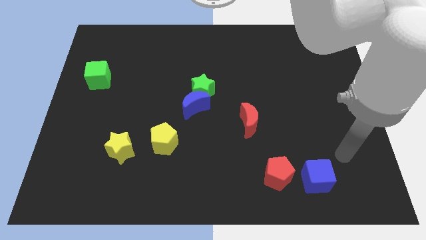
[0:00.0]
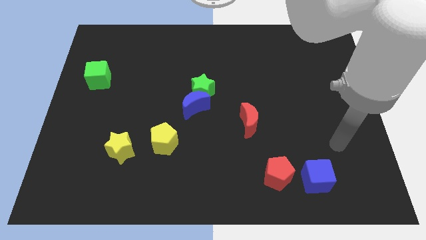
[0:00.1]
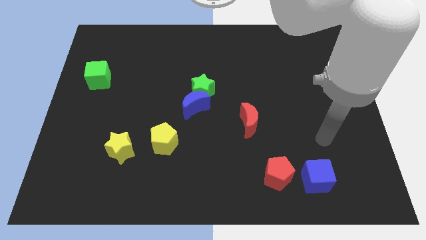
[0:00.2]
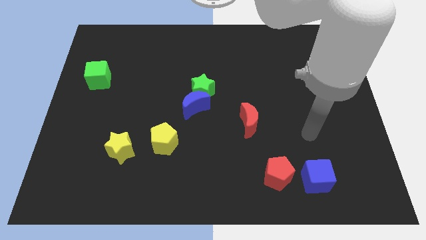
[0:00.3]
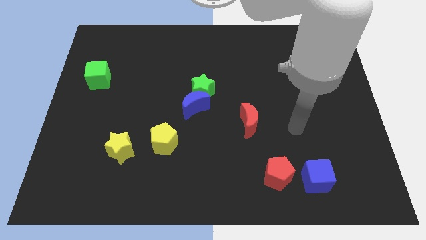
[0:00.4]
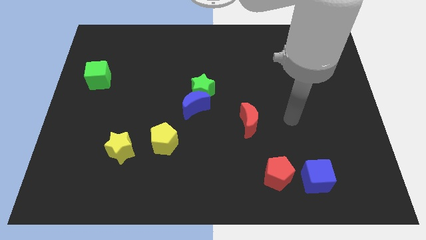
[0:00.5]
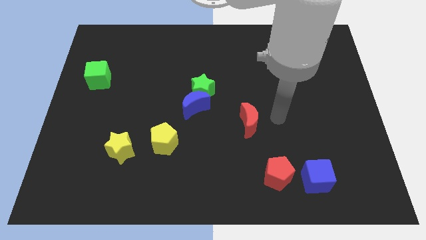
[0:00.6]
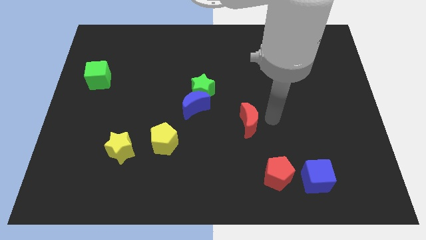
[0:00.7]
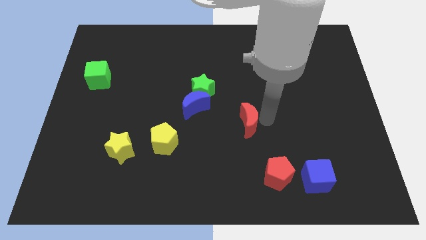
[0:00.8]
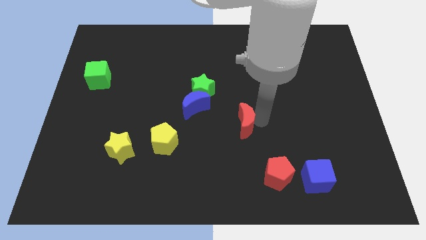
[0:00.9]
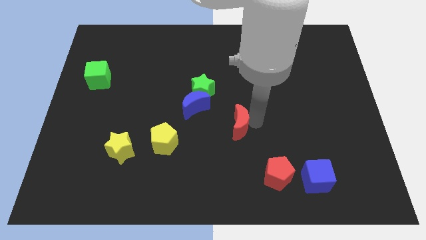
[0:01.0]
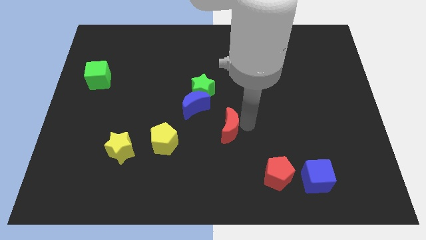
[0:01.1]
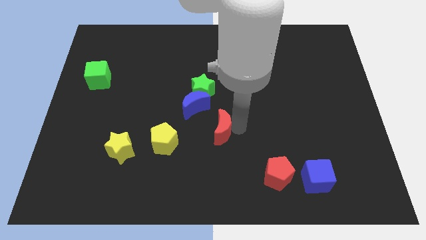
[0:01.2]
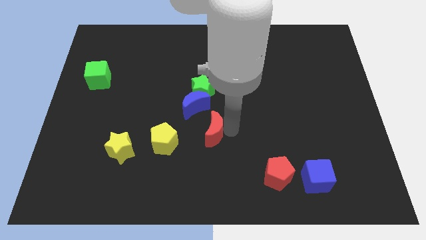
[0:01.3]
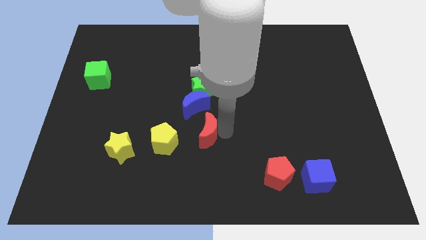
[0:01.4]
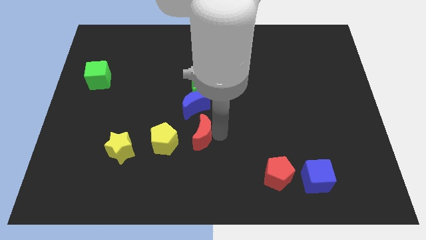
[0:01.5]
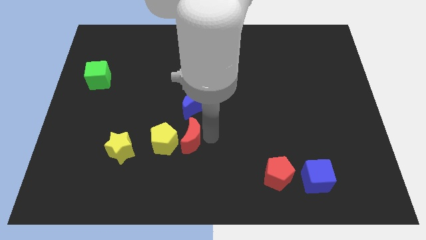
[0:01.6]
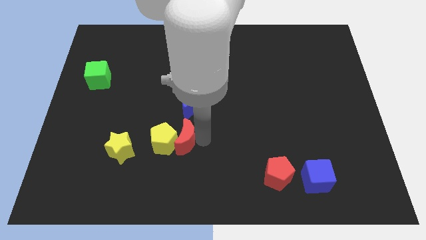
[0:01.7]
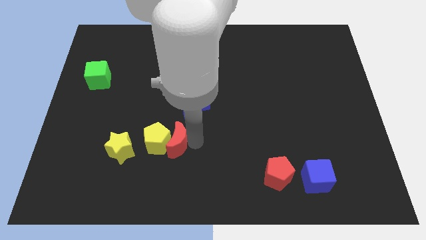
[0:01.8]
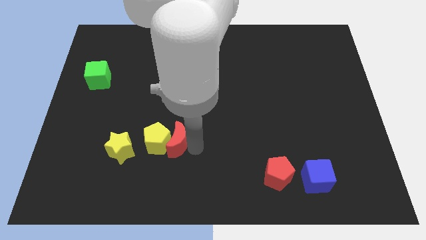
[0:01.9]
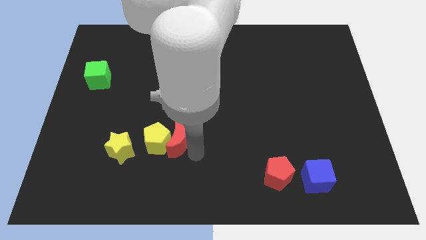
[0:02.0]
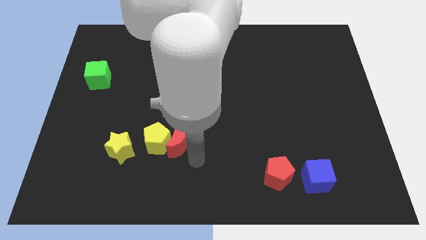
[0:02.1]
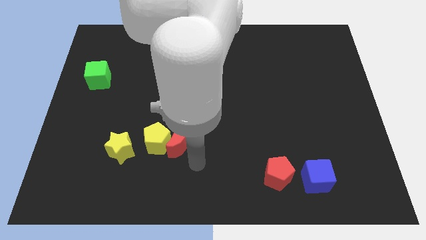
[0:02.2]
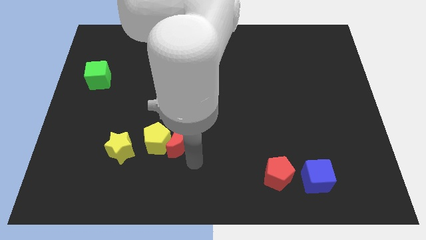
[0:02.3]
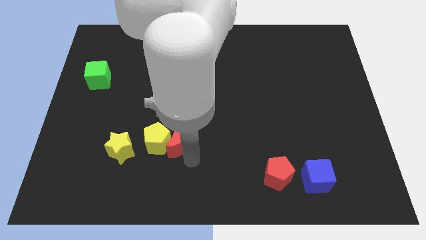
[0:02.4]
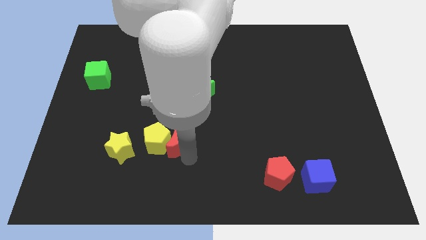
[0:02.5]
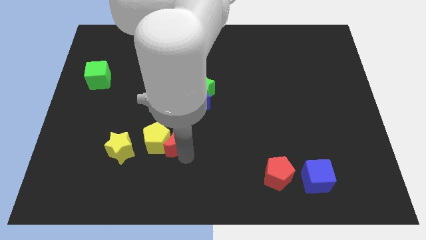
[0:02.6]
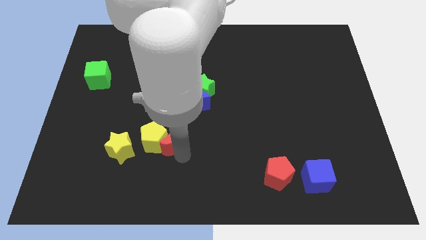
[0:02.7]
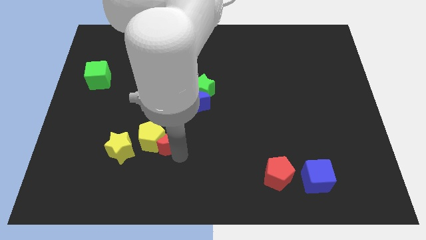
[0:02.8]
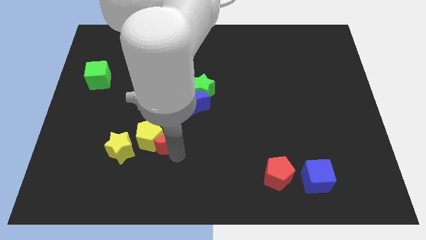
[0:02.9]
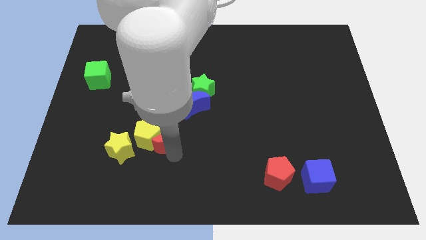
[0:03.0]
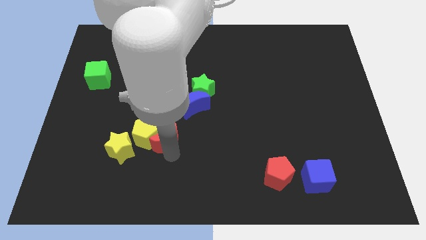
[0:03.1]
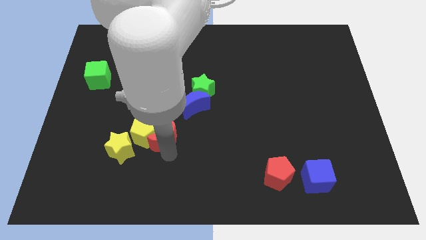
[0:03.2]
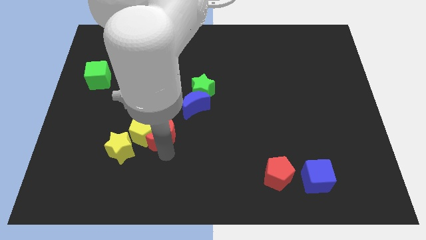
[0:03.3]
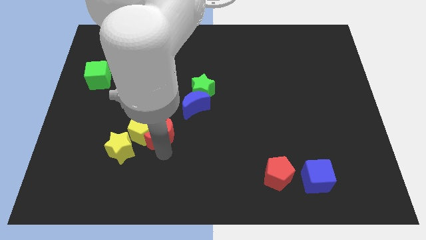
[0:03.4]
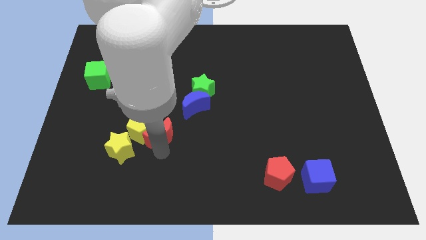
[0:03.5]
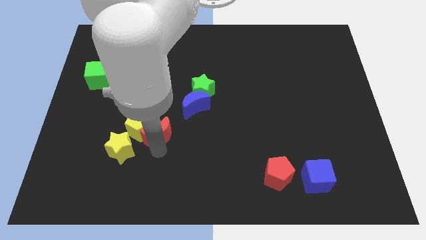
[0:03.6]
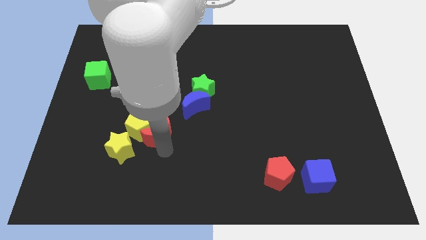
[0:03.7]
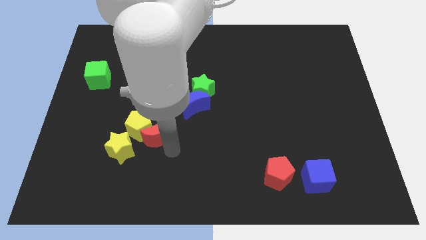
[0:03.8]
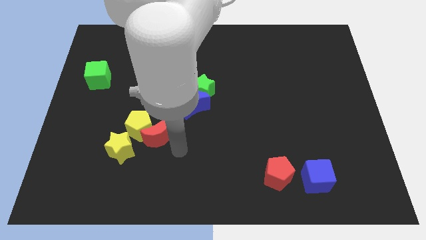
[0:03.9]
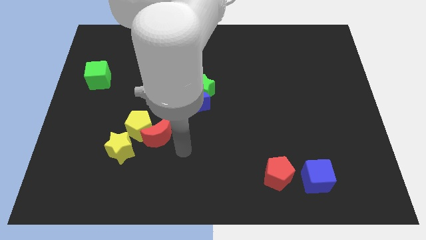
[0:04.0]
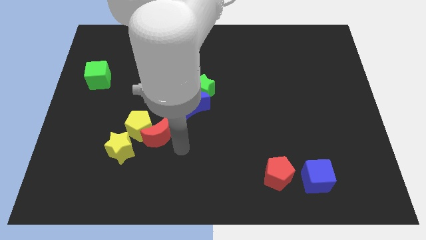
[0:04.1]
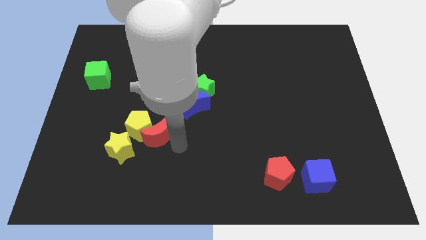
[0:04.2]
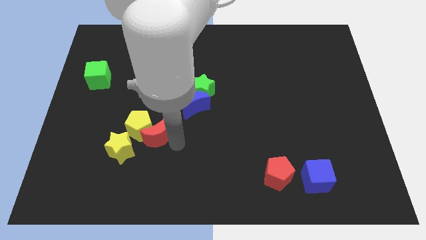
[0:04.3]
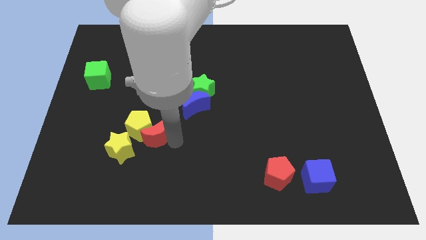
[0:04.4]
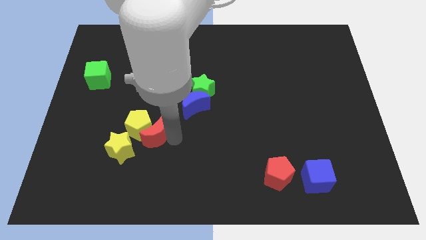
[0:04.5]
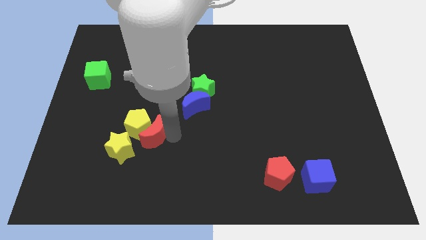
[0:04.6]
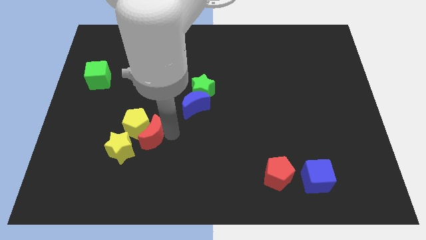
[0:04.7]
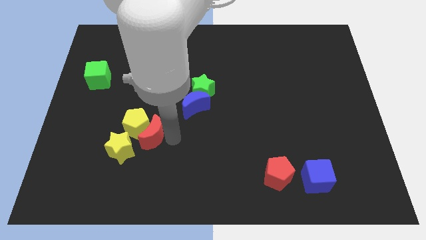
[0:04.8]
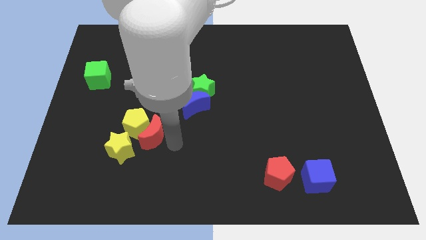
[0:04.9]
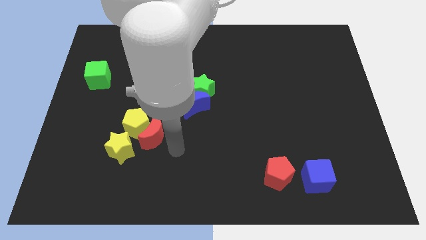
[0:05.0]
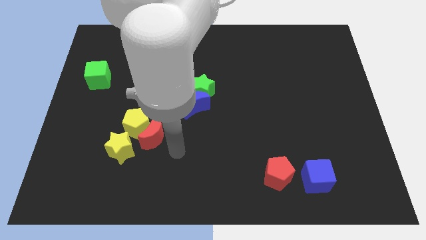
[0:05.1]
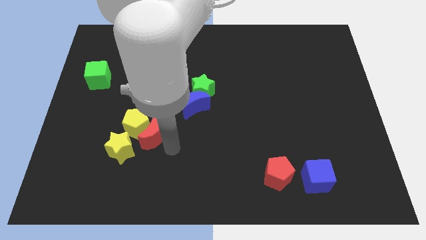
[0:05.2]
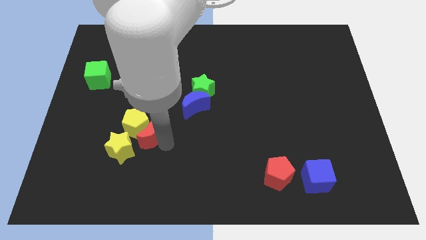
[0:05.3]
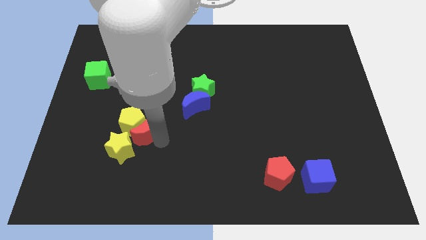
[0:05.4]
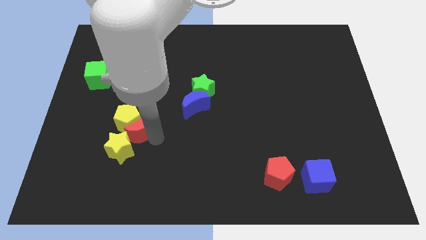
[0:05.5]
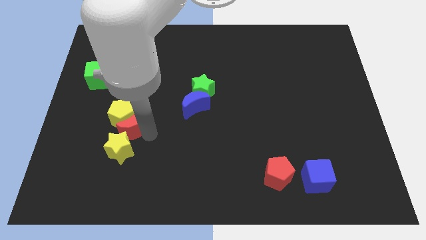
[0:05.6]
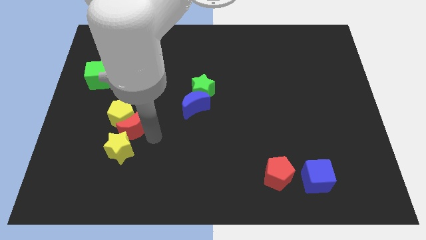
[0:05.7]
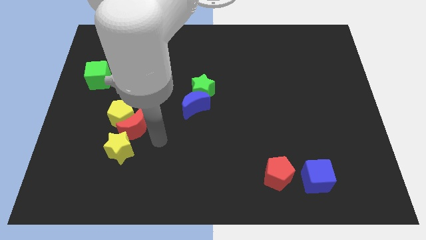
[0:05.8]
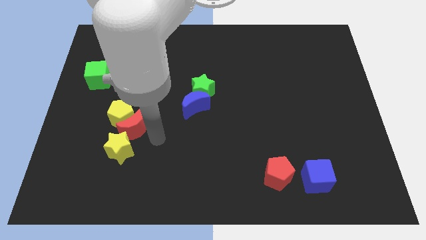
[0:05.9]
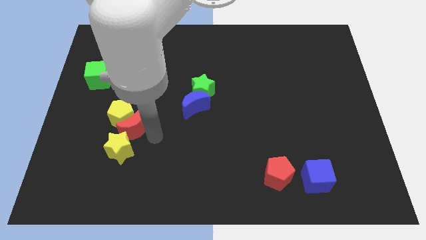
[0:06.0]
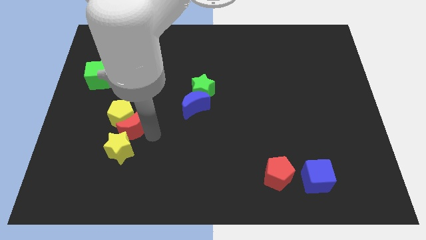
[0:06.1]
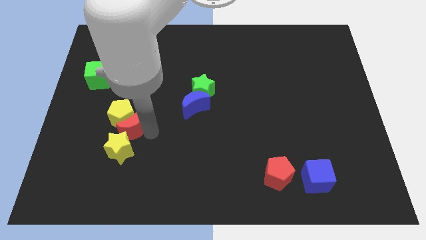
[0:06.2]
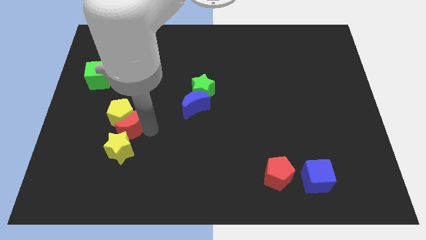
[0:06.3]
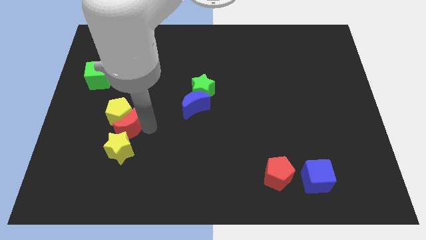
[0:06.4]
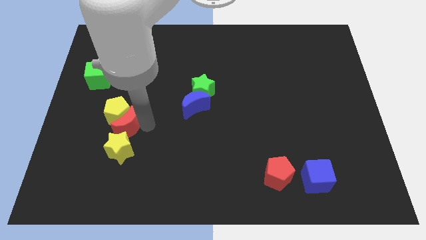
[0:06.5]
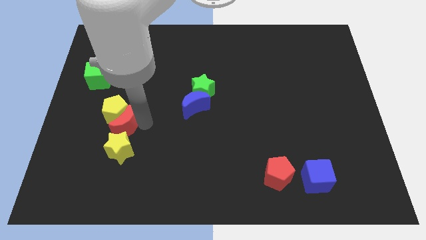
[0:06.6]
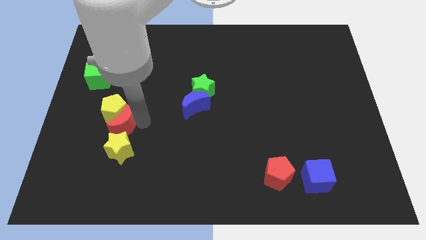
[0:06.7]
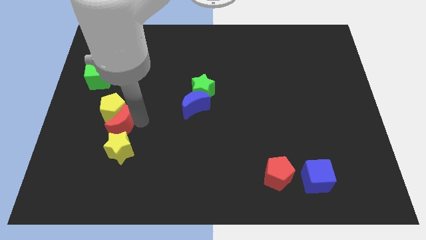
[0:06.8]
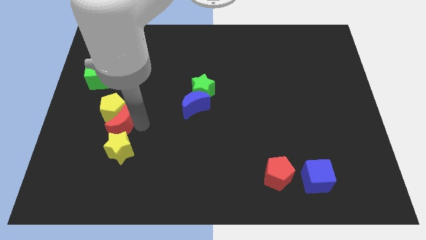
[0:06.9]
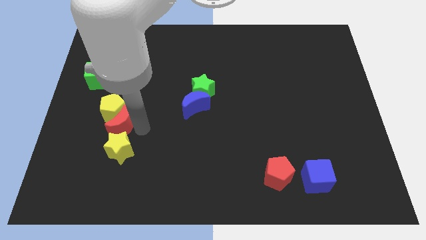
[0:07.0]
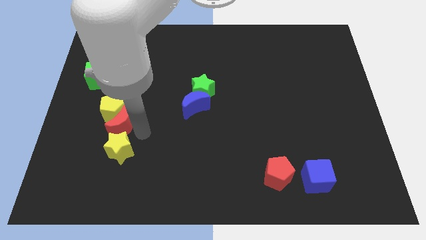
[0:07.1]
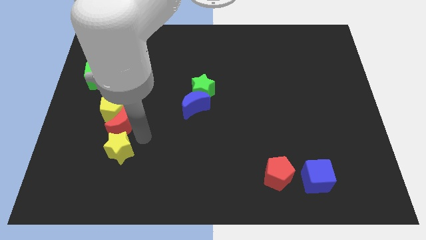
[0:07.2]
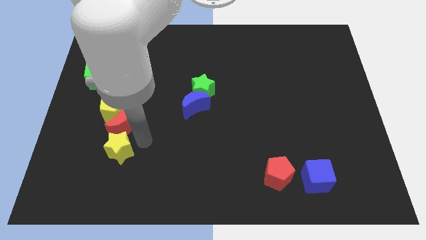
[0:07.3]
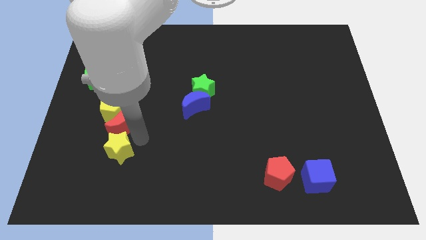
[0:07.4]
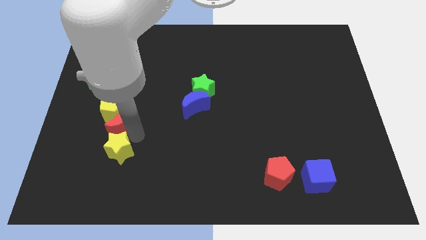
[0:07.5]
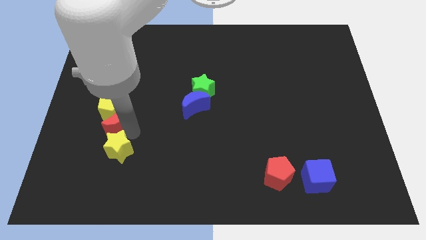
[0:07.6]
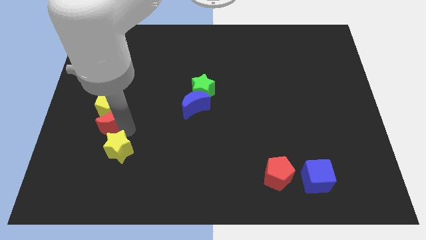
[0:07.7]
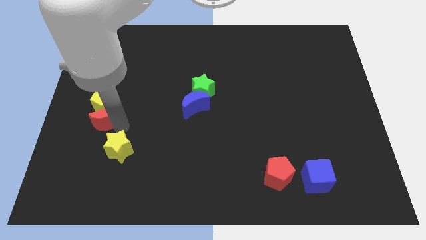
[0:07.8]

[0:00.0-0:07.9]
push the red moon to the bottom side of the green cube
